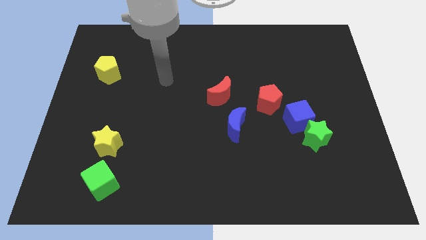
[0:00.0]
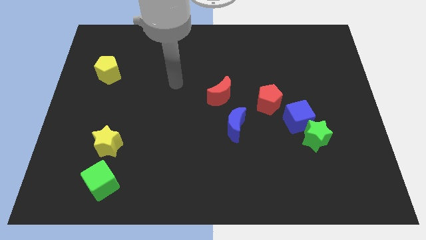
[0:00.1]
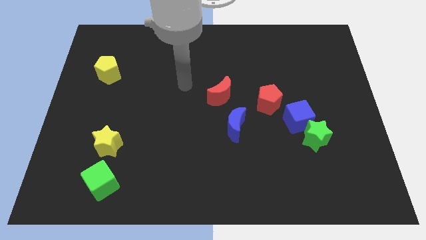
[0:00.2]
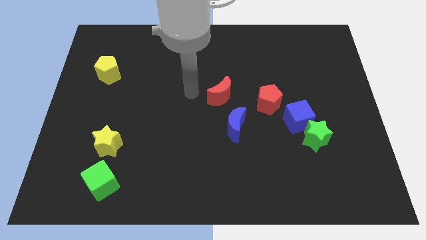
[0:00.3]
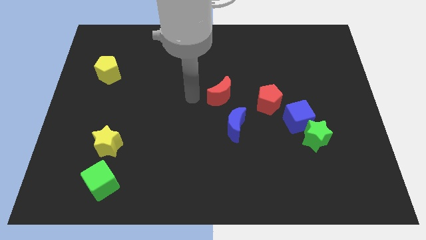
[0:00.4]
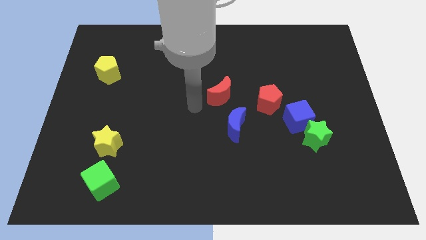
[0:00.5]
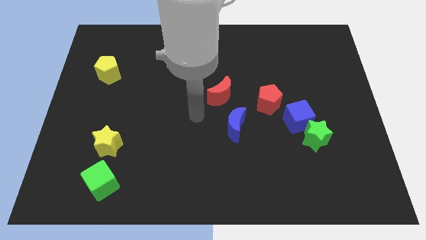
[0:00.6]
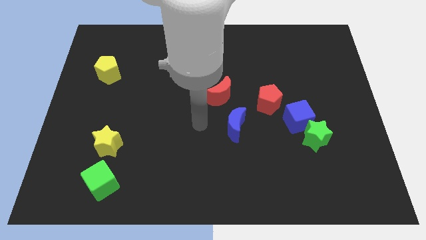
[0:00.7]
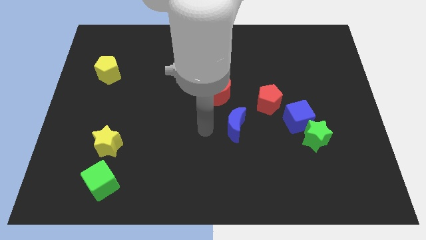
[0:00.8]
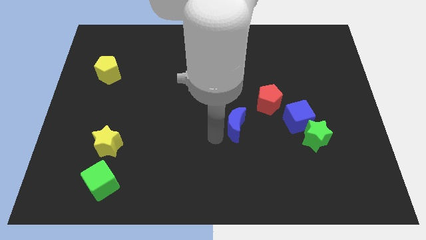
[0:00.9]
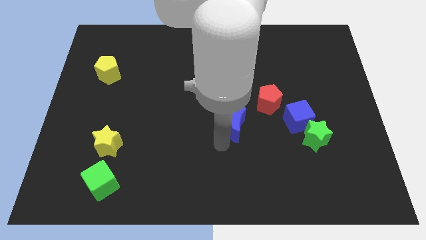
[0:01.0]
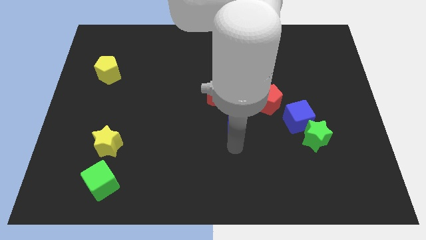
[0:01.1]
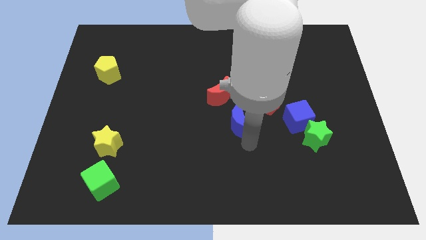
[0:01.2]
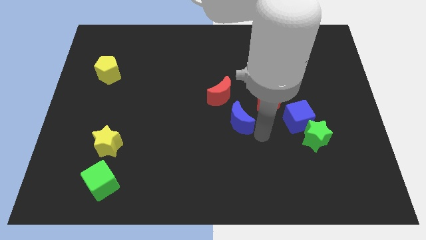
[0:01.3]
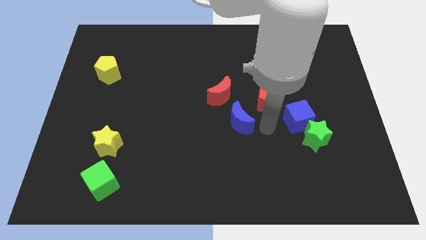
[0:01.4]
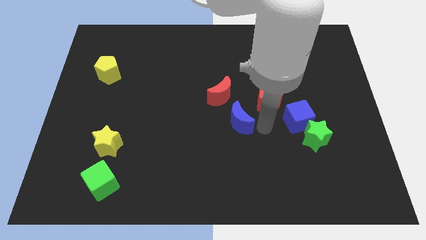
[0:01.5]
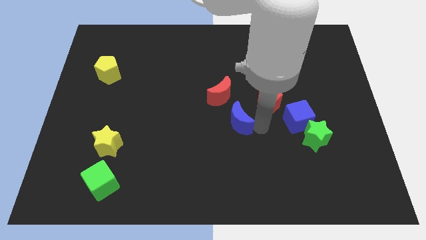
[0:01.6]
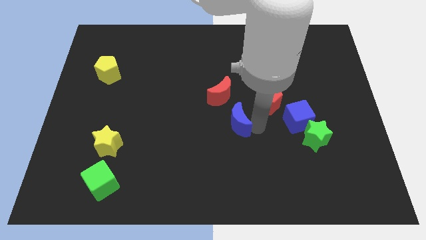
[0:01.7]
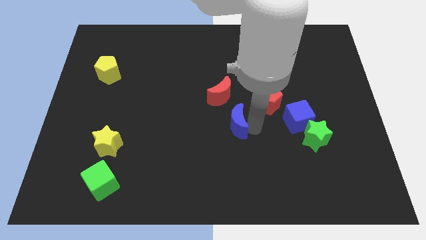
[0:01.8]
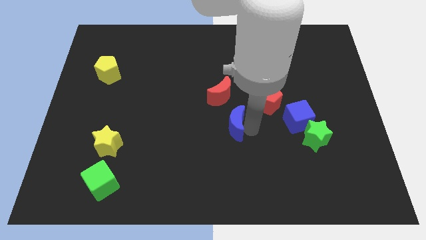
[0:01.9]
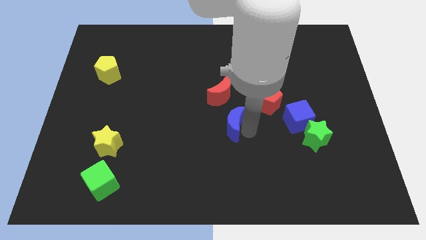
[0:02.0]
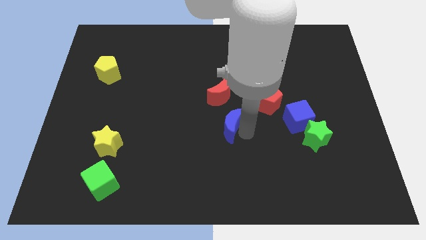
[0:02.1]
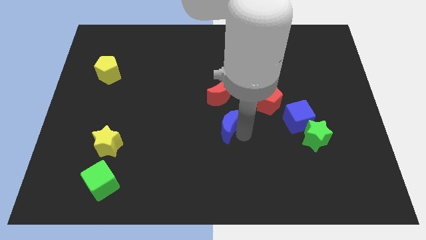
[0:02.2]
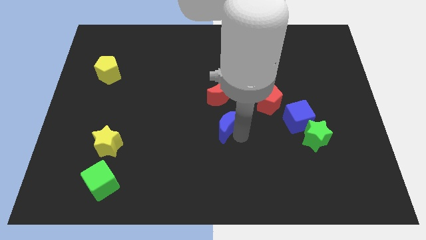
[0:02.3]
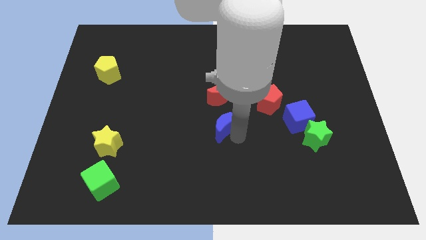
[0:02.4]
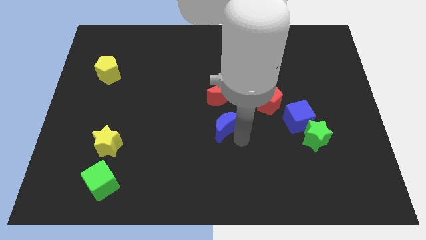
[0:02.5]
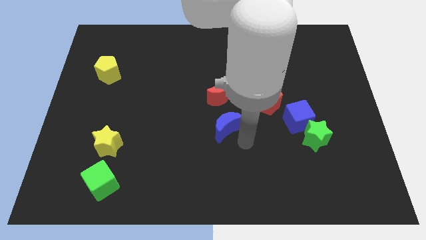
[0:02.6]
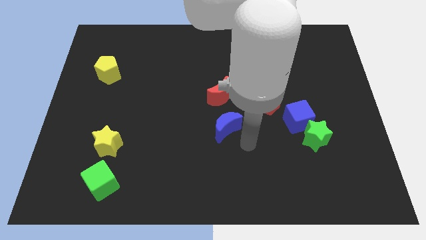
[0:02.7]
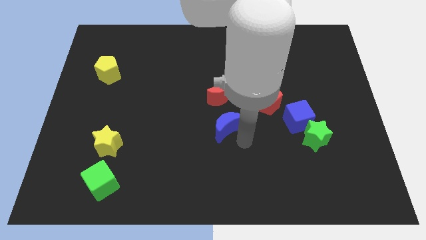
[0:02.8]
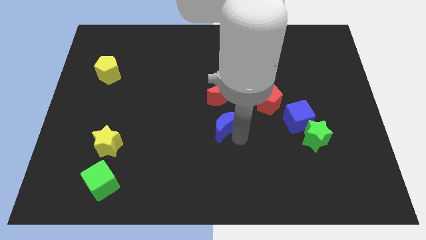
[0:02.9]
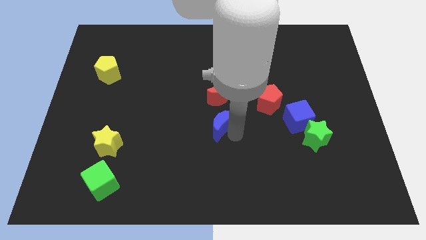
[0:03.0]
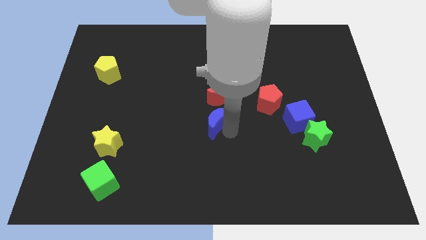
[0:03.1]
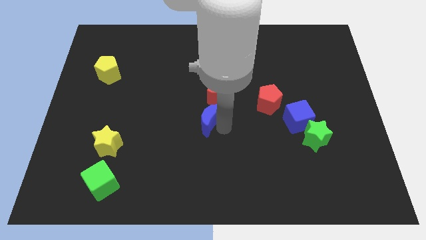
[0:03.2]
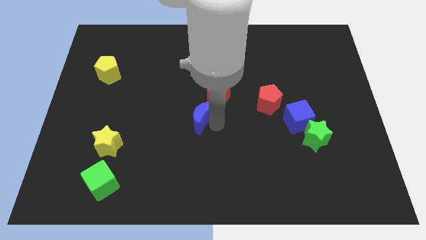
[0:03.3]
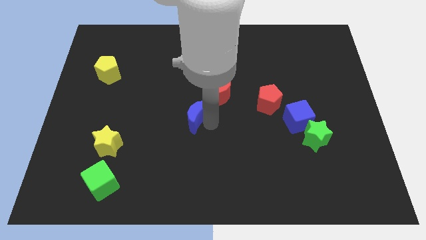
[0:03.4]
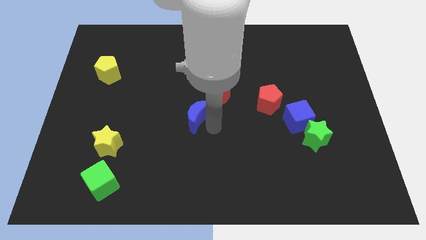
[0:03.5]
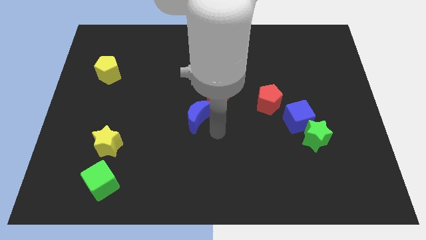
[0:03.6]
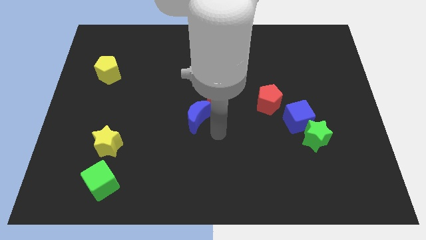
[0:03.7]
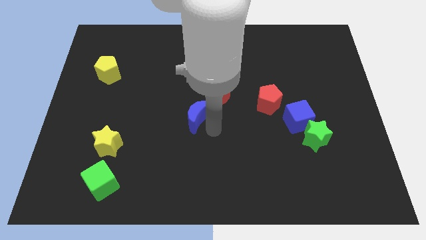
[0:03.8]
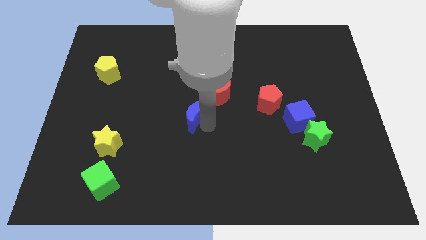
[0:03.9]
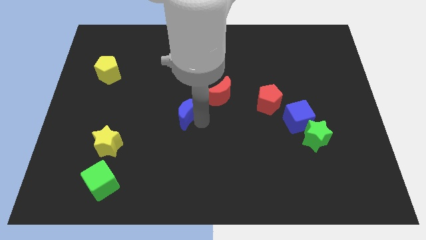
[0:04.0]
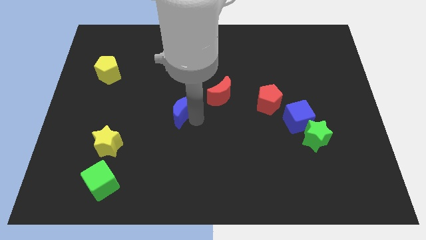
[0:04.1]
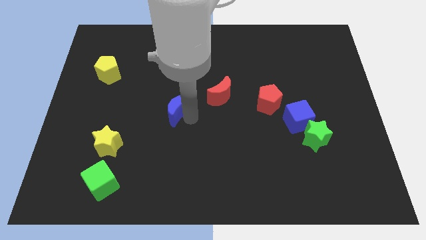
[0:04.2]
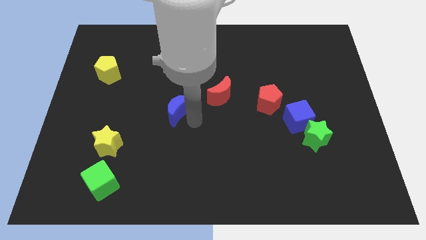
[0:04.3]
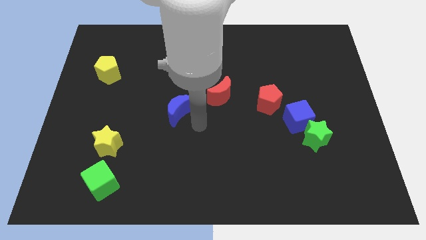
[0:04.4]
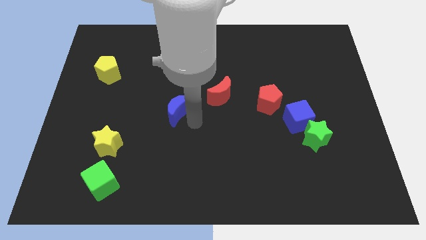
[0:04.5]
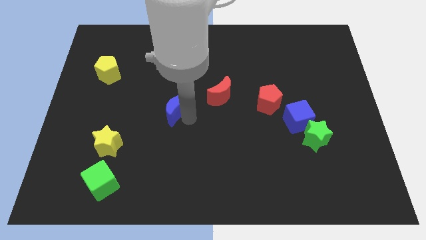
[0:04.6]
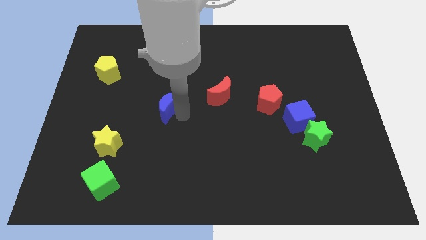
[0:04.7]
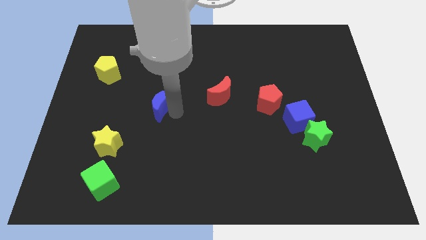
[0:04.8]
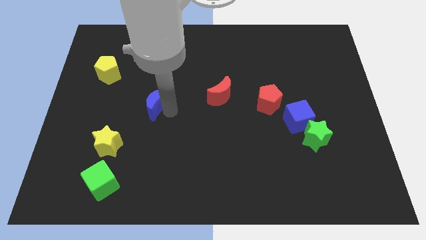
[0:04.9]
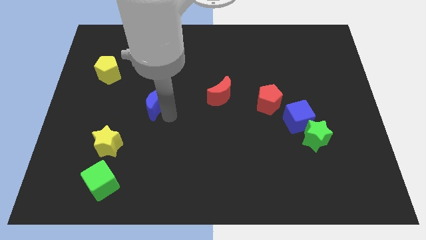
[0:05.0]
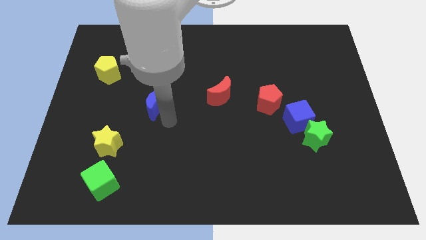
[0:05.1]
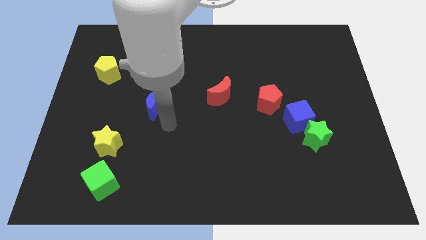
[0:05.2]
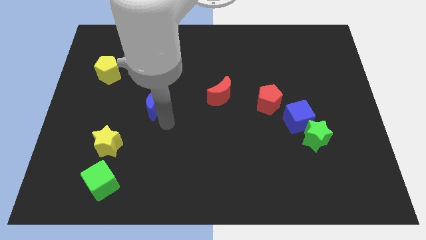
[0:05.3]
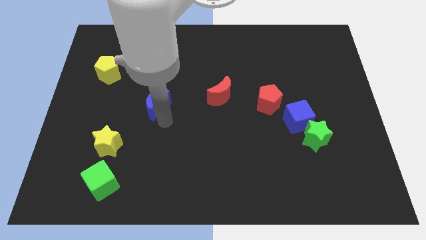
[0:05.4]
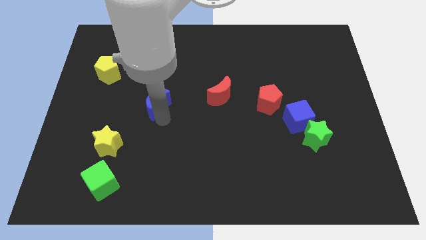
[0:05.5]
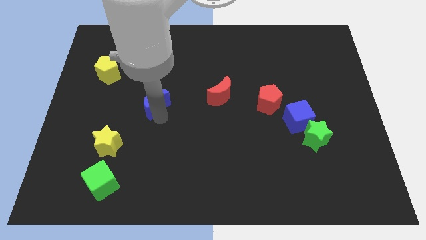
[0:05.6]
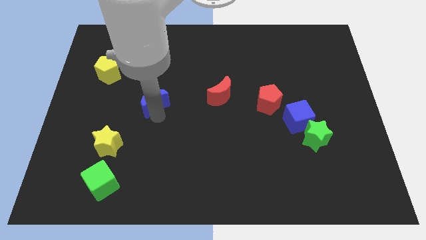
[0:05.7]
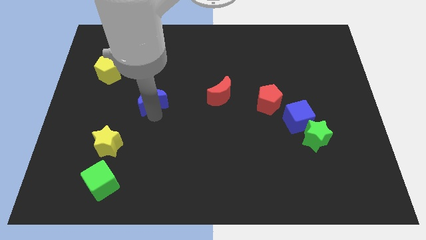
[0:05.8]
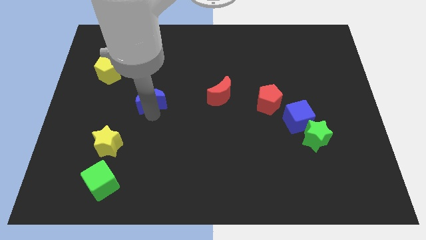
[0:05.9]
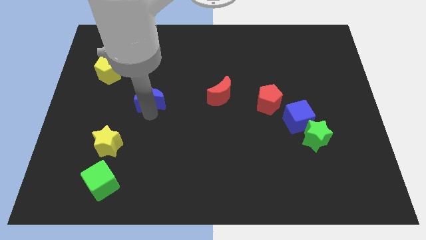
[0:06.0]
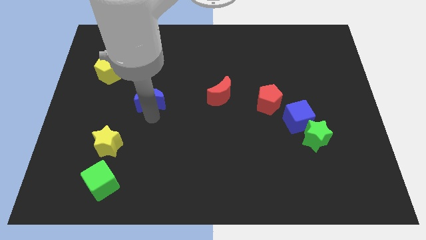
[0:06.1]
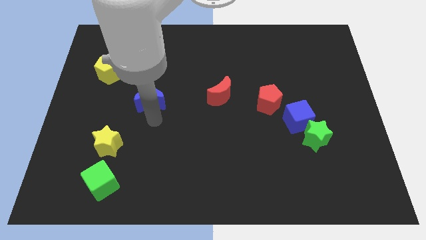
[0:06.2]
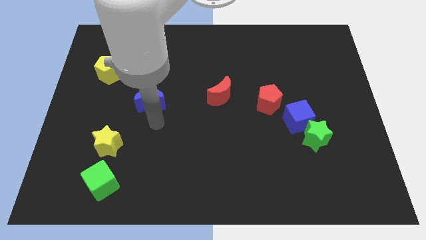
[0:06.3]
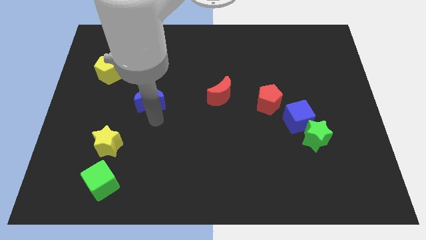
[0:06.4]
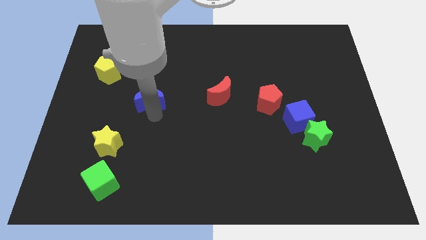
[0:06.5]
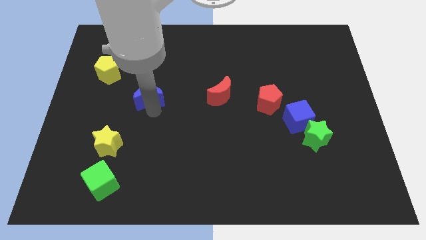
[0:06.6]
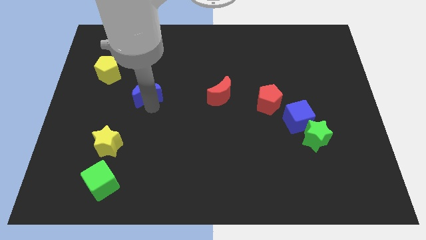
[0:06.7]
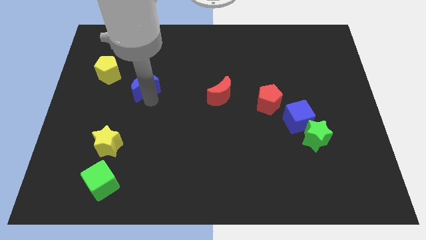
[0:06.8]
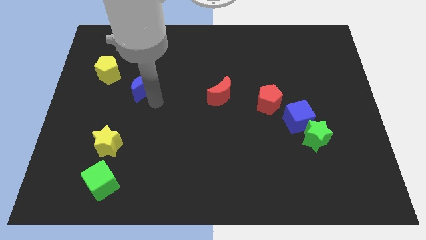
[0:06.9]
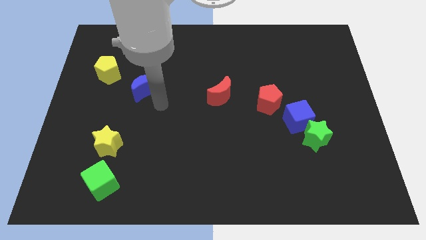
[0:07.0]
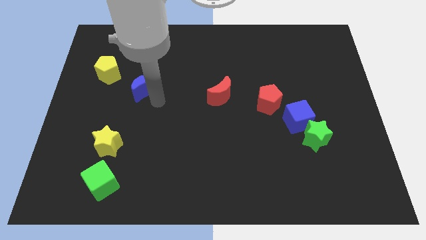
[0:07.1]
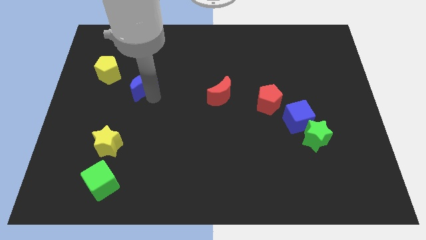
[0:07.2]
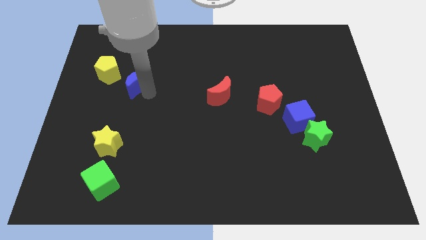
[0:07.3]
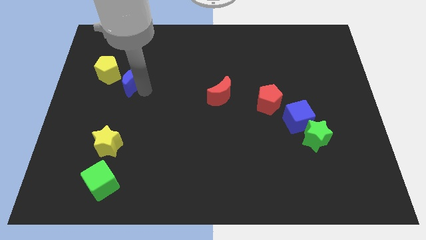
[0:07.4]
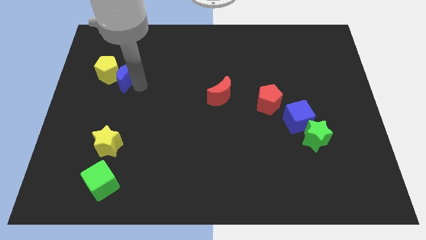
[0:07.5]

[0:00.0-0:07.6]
move the blue moon close to the yellow pentagon
